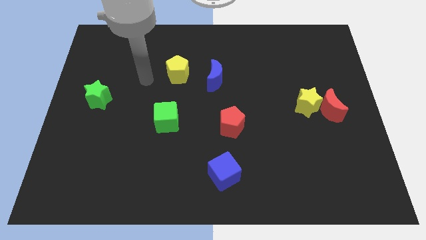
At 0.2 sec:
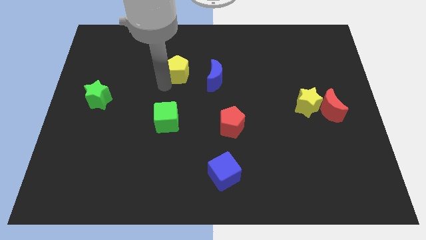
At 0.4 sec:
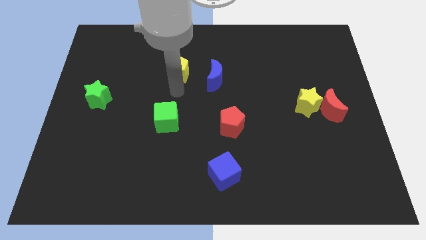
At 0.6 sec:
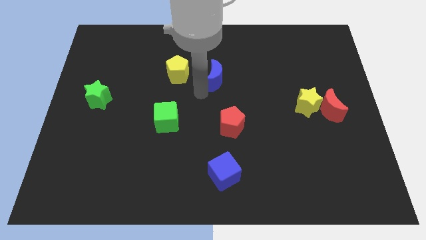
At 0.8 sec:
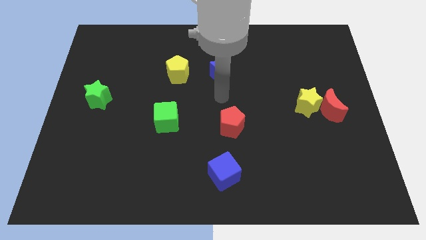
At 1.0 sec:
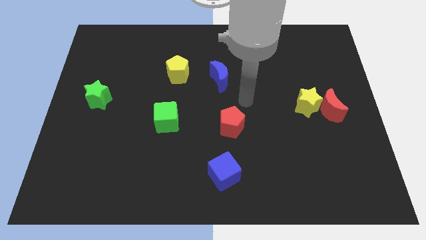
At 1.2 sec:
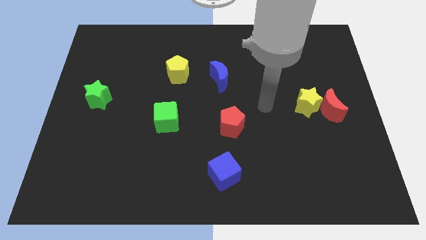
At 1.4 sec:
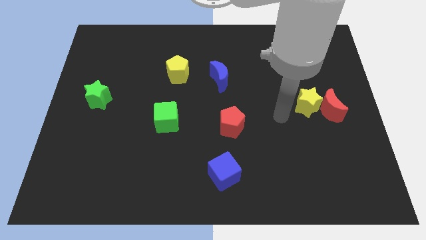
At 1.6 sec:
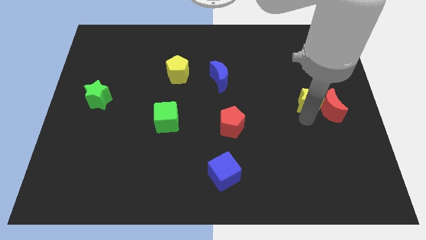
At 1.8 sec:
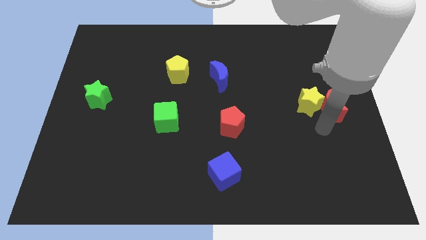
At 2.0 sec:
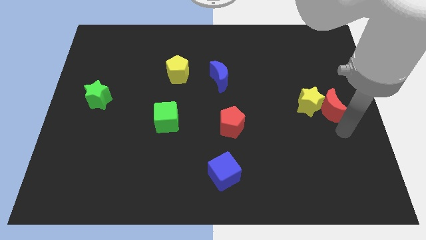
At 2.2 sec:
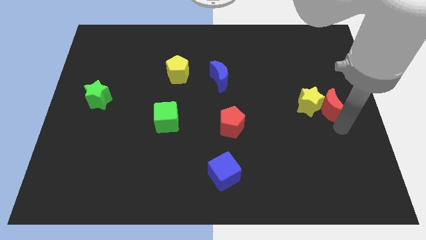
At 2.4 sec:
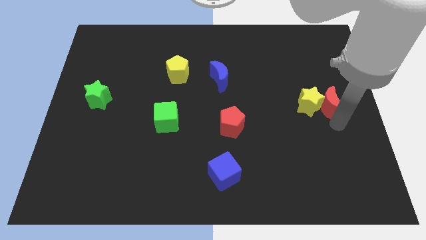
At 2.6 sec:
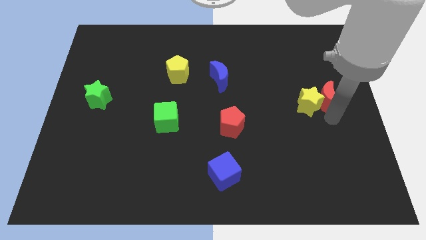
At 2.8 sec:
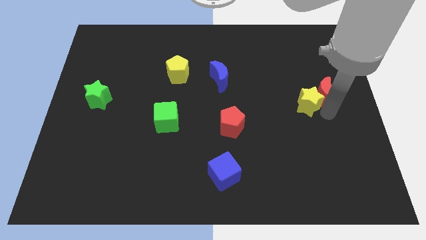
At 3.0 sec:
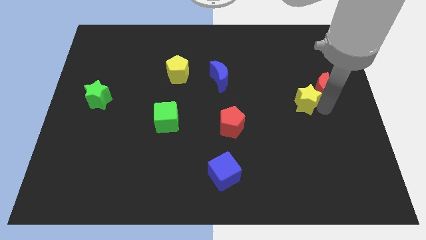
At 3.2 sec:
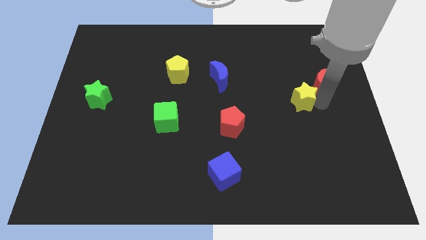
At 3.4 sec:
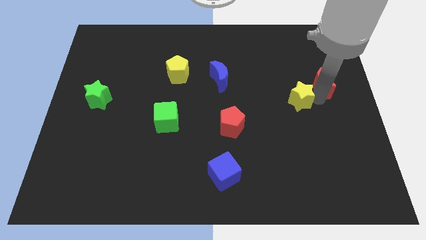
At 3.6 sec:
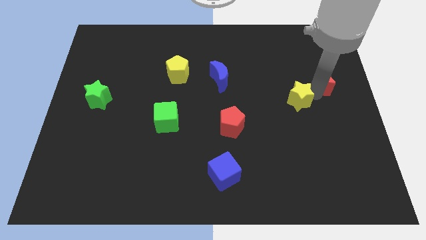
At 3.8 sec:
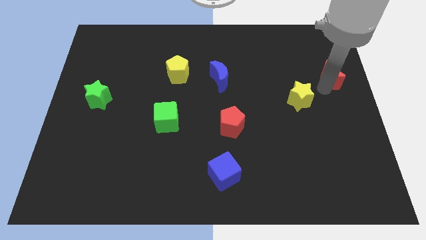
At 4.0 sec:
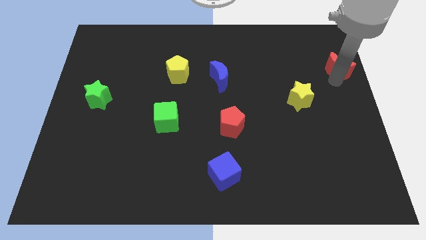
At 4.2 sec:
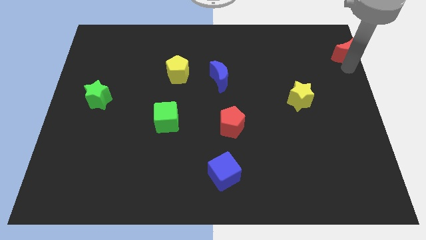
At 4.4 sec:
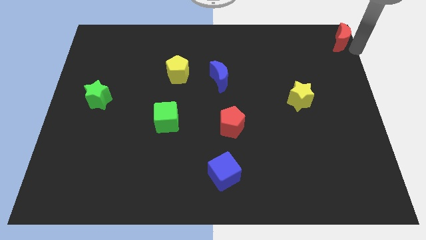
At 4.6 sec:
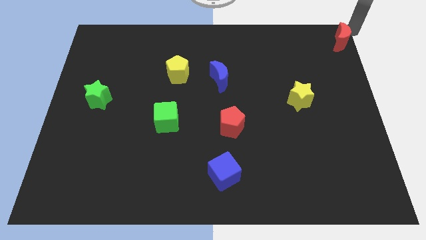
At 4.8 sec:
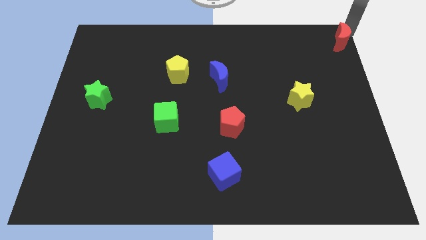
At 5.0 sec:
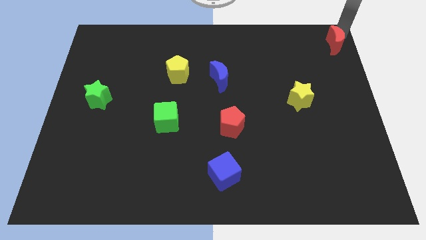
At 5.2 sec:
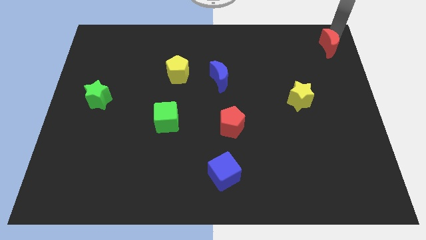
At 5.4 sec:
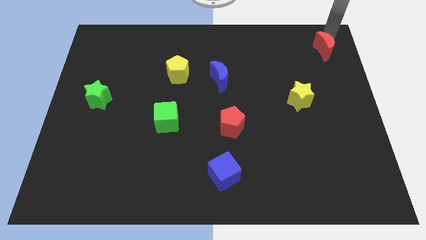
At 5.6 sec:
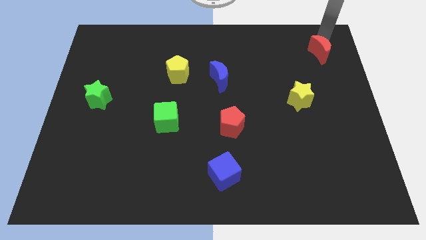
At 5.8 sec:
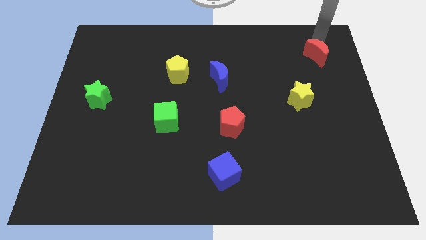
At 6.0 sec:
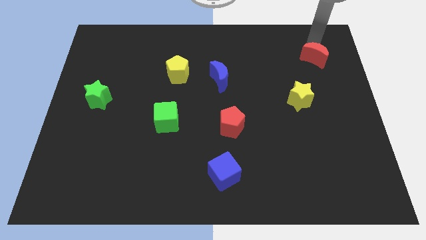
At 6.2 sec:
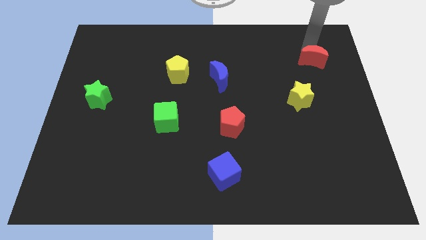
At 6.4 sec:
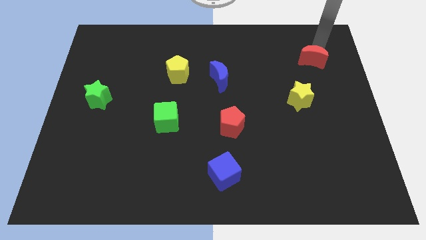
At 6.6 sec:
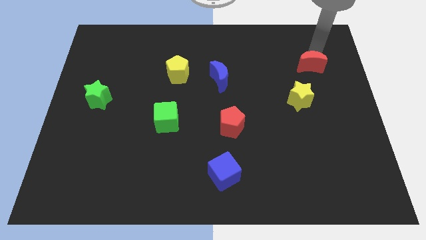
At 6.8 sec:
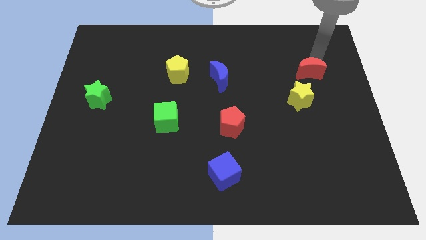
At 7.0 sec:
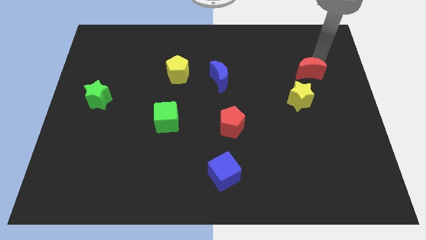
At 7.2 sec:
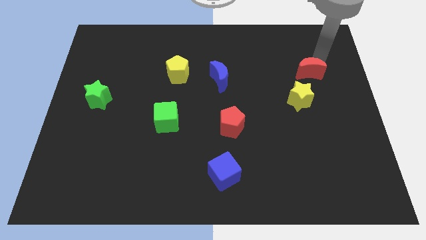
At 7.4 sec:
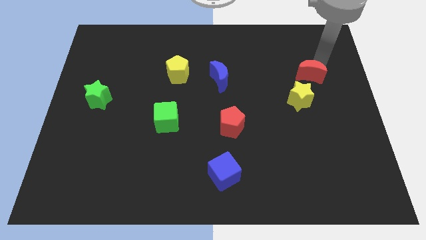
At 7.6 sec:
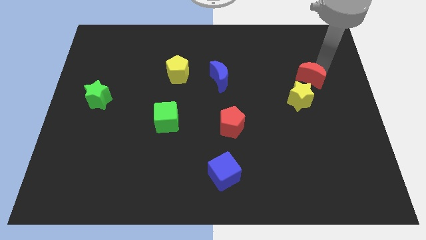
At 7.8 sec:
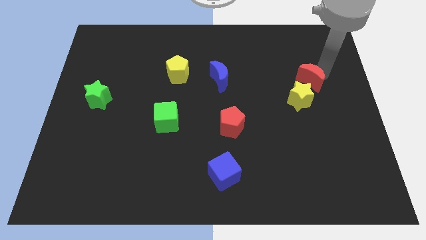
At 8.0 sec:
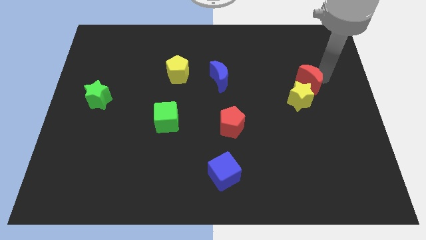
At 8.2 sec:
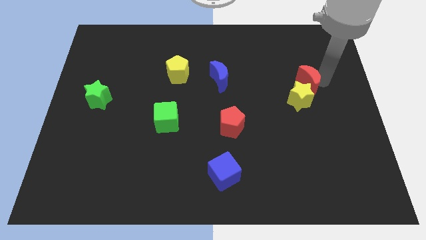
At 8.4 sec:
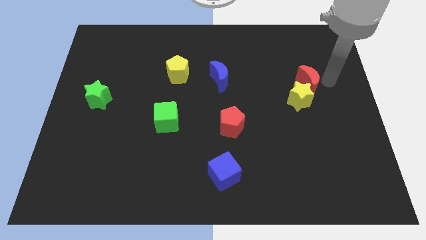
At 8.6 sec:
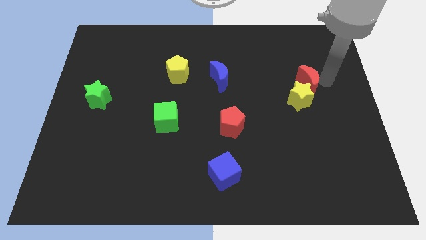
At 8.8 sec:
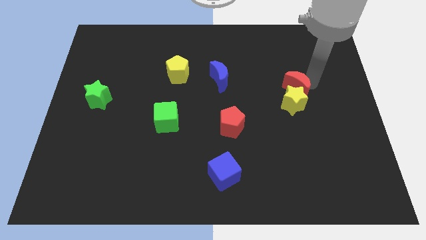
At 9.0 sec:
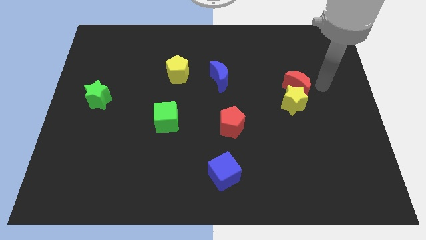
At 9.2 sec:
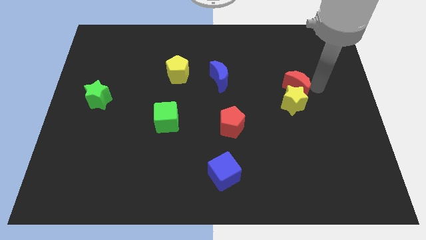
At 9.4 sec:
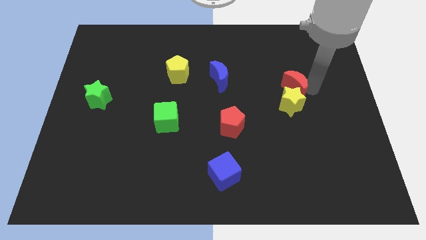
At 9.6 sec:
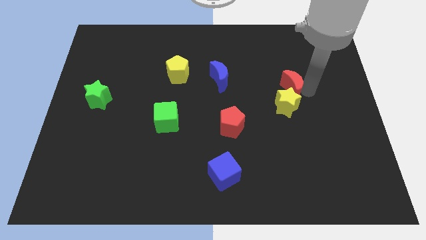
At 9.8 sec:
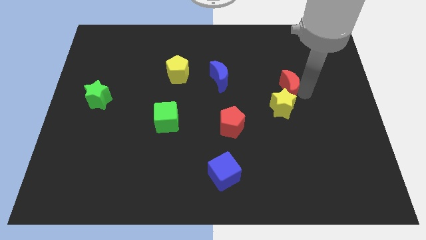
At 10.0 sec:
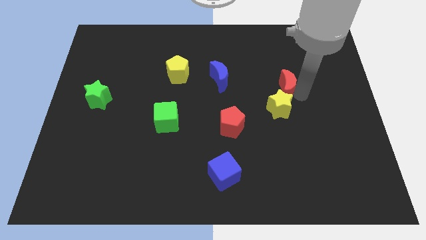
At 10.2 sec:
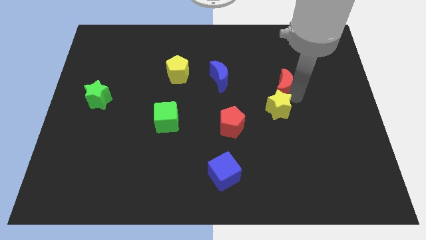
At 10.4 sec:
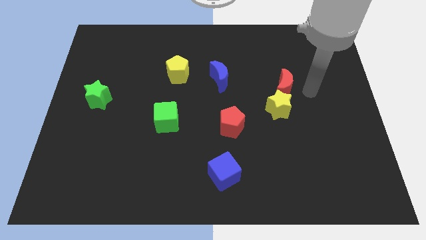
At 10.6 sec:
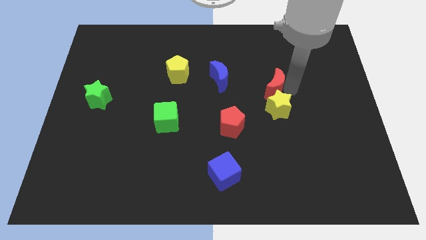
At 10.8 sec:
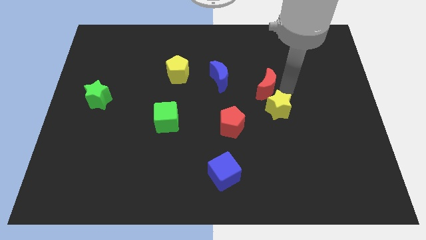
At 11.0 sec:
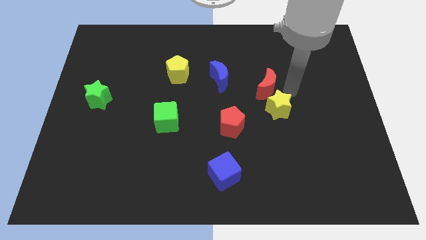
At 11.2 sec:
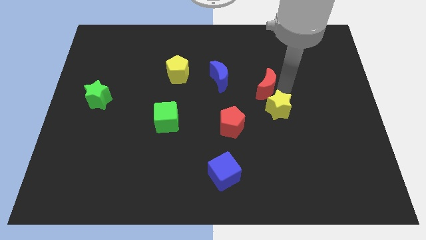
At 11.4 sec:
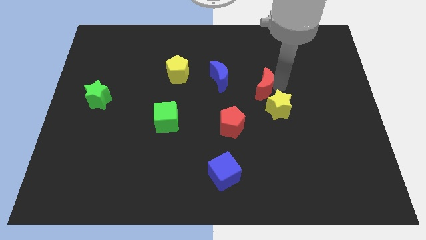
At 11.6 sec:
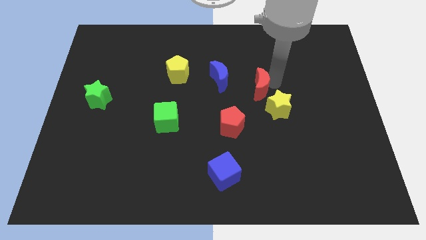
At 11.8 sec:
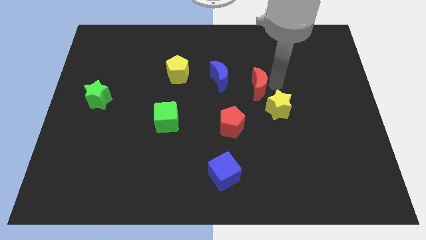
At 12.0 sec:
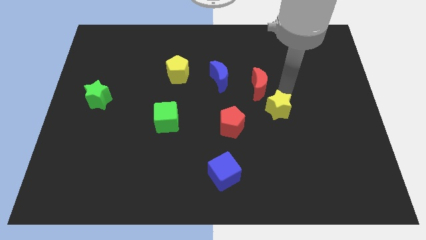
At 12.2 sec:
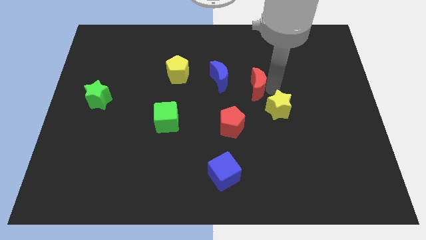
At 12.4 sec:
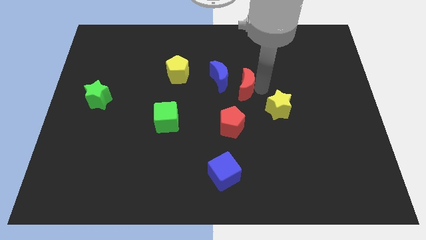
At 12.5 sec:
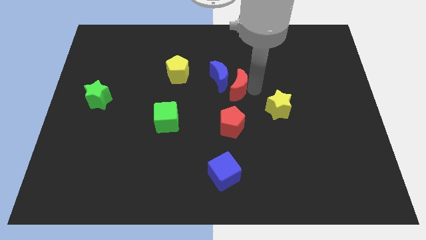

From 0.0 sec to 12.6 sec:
put the red moon to the blue moon

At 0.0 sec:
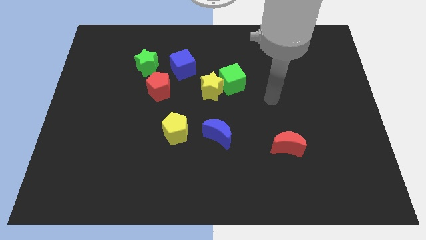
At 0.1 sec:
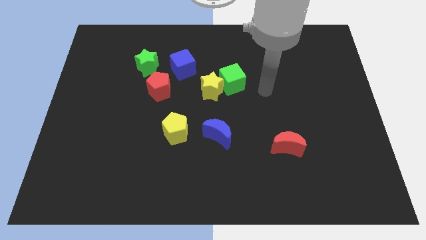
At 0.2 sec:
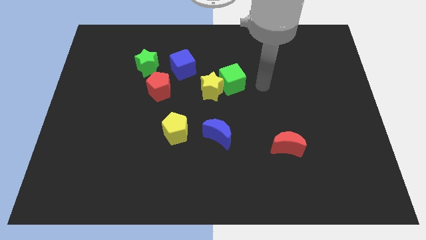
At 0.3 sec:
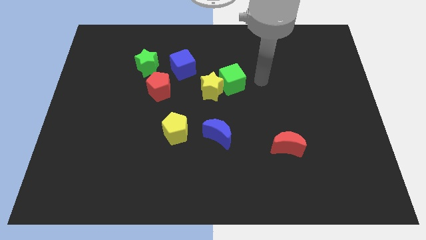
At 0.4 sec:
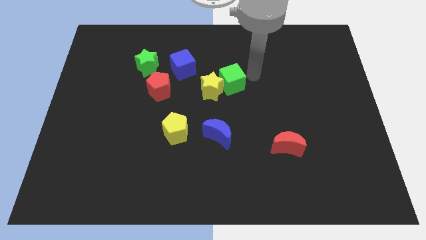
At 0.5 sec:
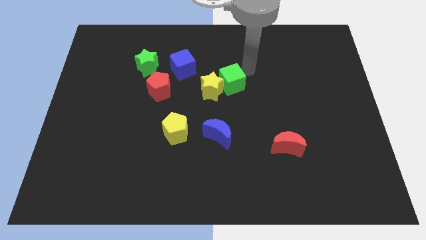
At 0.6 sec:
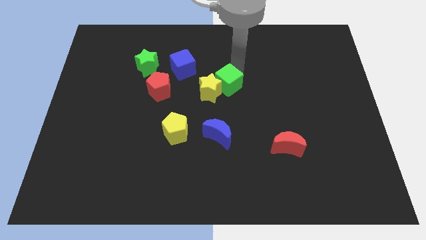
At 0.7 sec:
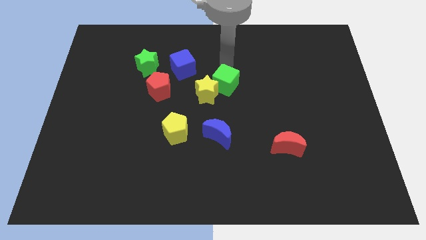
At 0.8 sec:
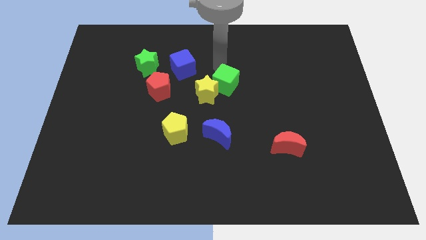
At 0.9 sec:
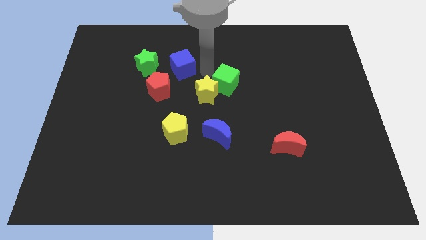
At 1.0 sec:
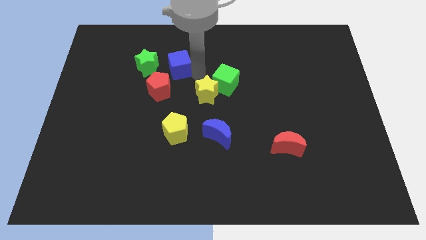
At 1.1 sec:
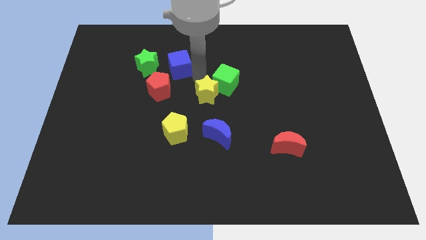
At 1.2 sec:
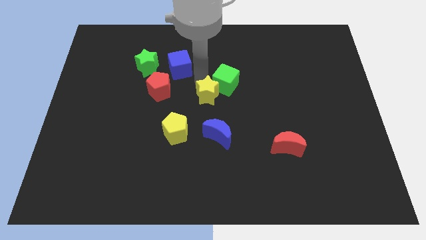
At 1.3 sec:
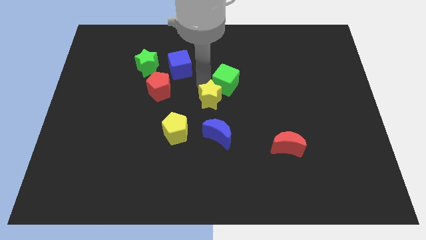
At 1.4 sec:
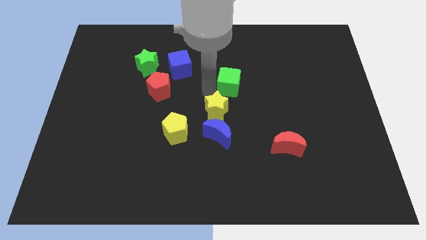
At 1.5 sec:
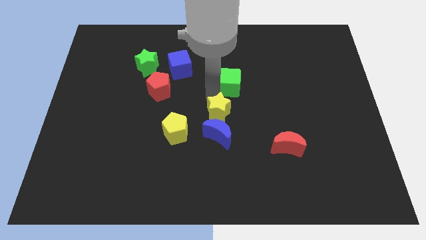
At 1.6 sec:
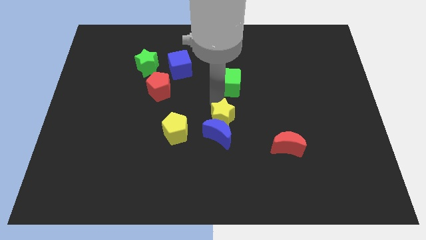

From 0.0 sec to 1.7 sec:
put the yellow star next to the blue moon

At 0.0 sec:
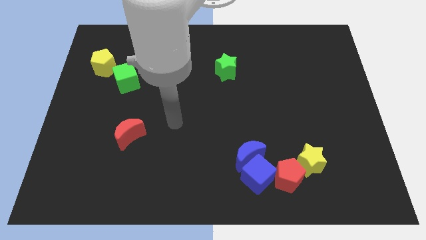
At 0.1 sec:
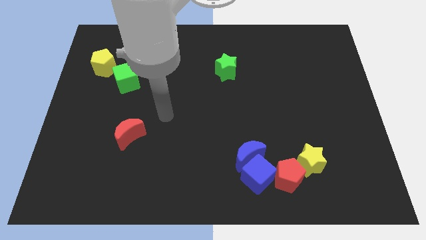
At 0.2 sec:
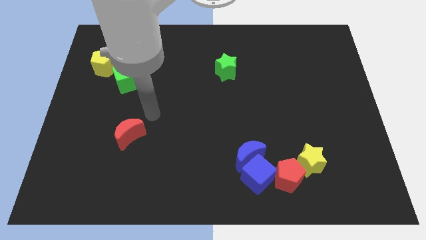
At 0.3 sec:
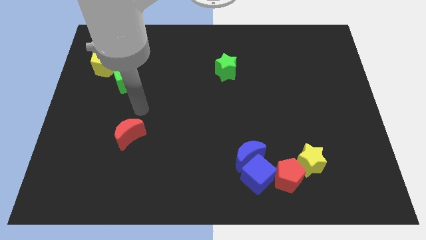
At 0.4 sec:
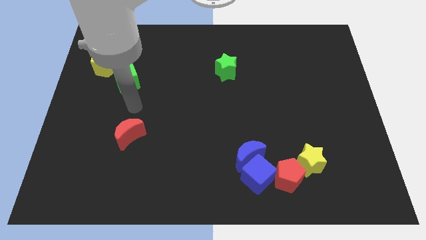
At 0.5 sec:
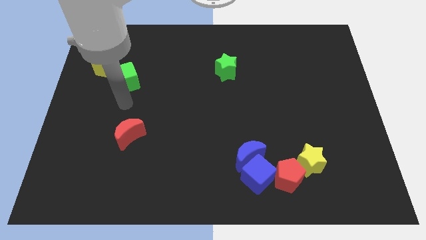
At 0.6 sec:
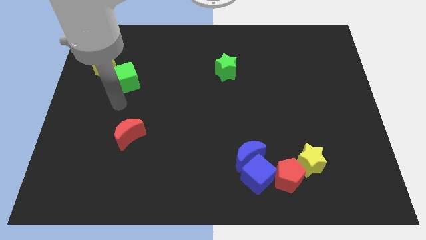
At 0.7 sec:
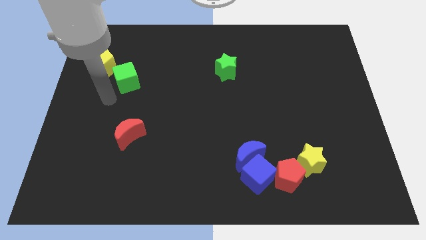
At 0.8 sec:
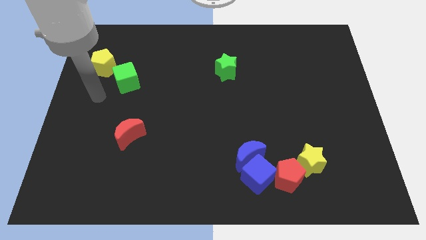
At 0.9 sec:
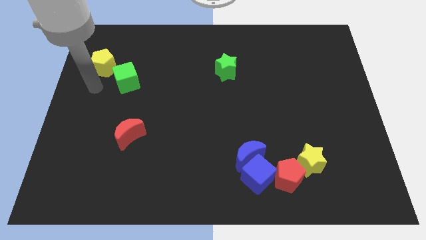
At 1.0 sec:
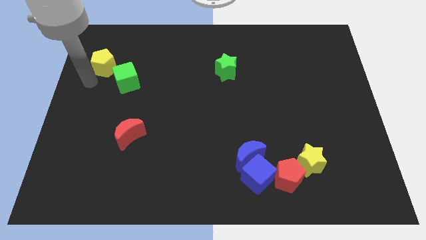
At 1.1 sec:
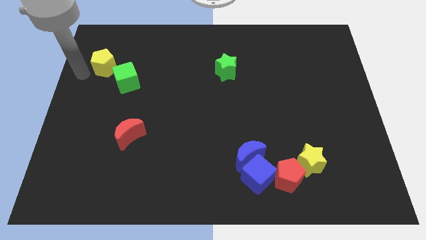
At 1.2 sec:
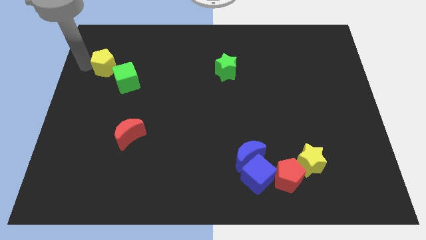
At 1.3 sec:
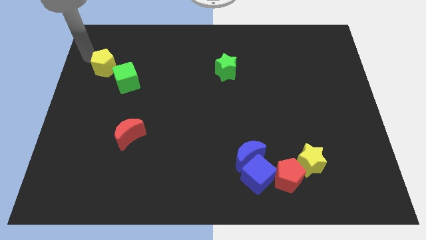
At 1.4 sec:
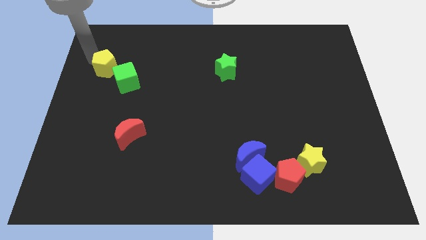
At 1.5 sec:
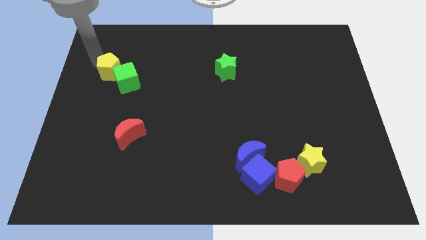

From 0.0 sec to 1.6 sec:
push the yellow pentagon towards the green cube
